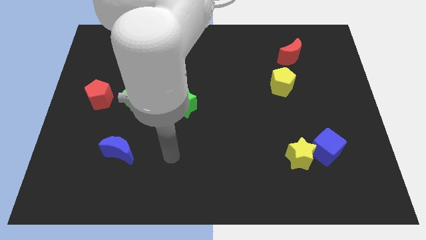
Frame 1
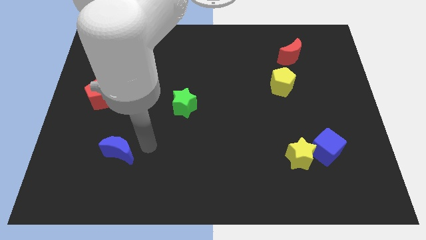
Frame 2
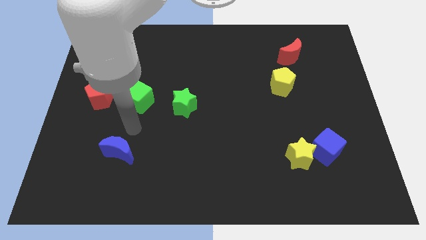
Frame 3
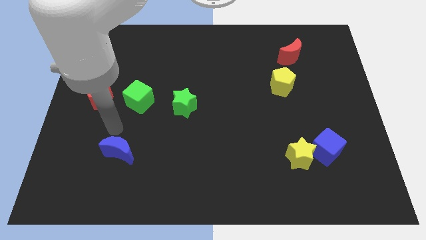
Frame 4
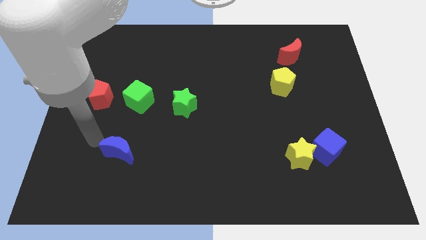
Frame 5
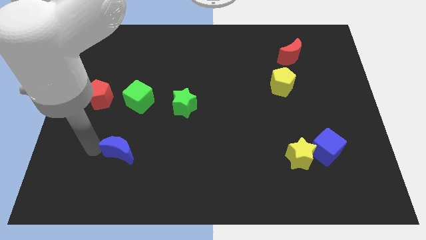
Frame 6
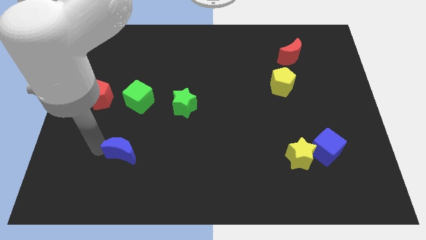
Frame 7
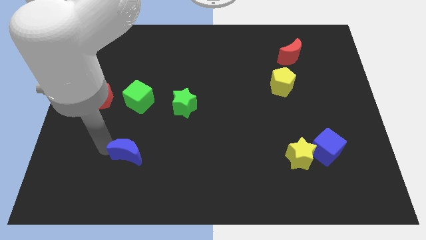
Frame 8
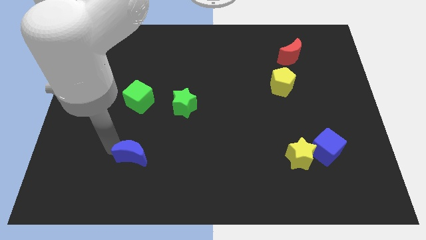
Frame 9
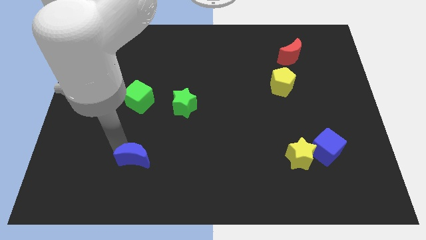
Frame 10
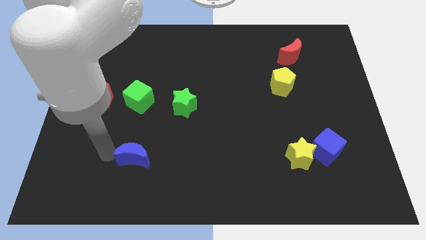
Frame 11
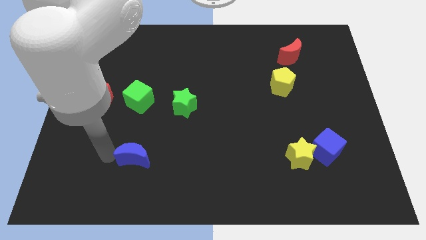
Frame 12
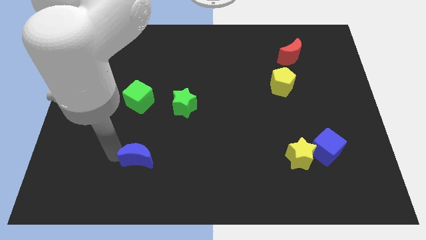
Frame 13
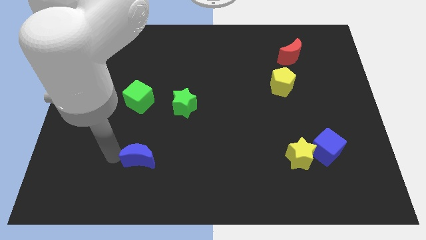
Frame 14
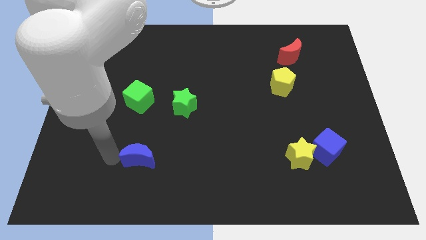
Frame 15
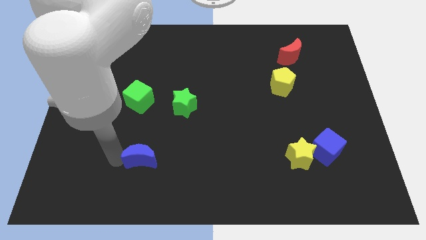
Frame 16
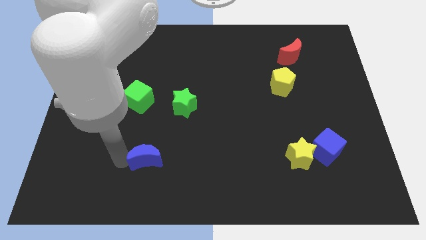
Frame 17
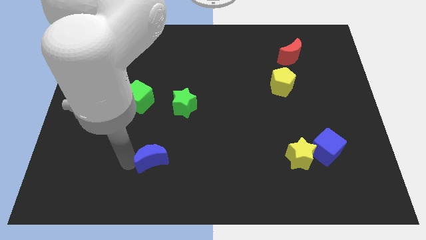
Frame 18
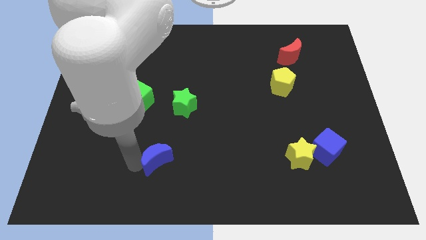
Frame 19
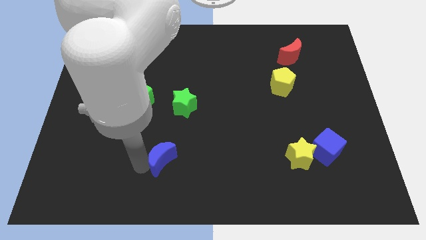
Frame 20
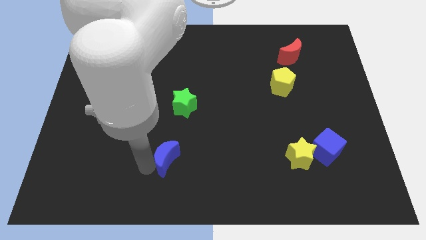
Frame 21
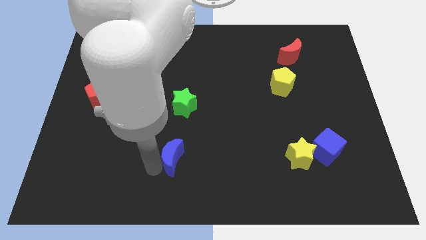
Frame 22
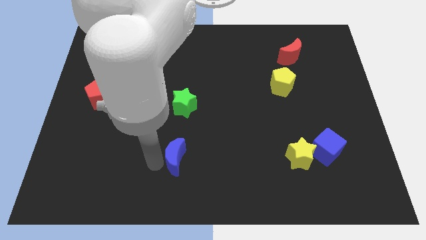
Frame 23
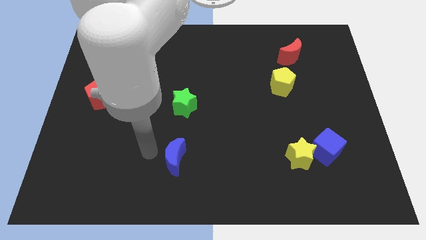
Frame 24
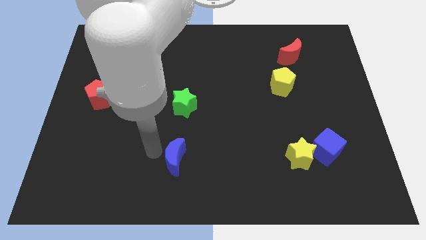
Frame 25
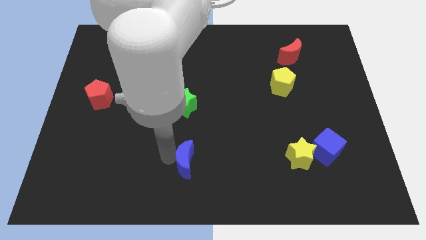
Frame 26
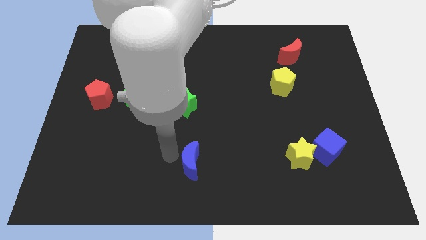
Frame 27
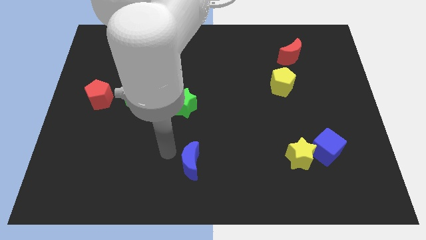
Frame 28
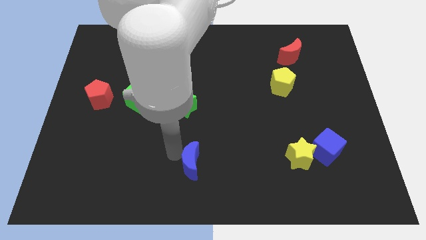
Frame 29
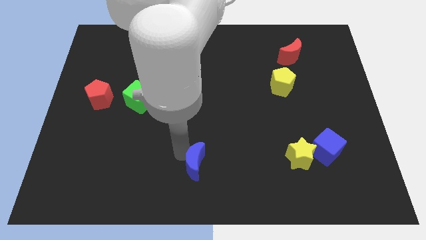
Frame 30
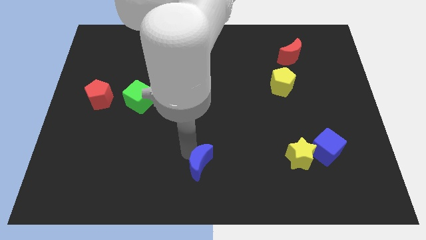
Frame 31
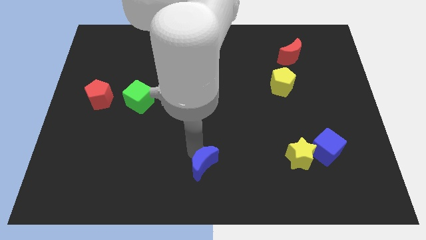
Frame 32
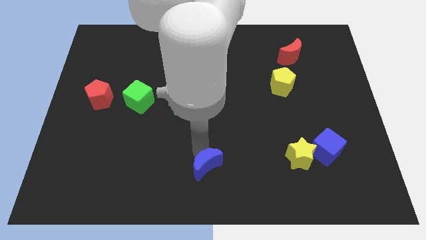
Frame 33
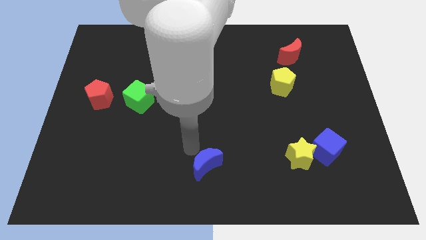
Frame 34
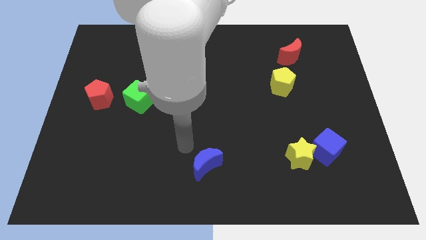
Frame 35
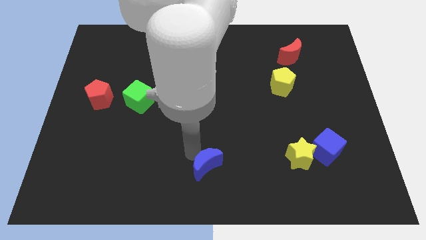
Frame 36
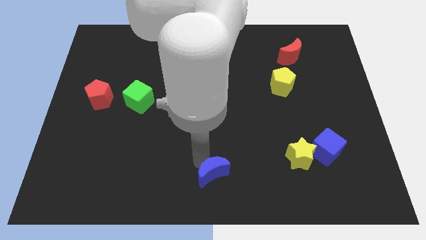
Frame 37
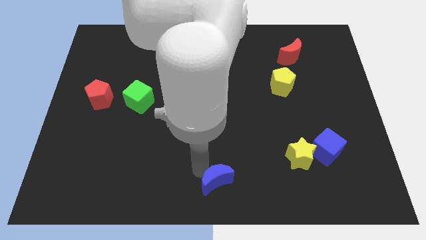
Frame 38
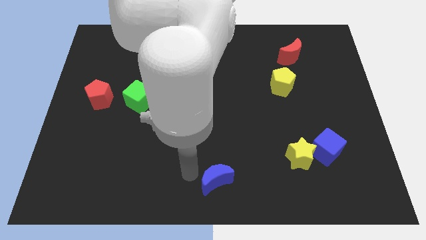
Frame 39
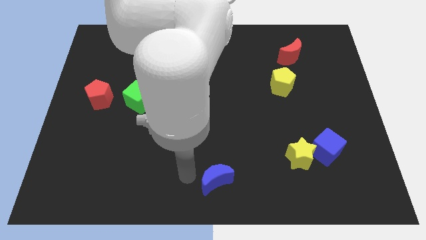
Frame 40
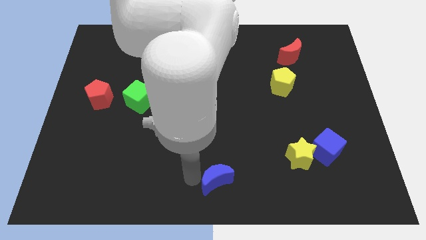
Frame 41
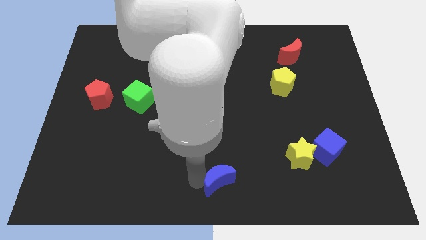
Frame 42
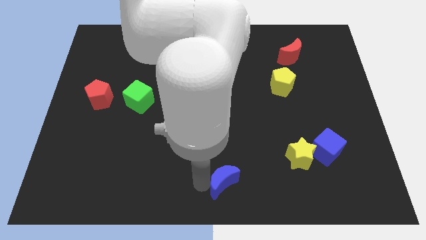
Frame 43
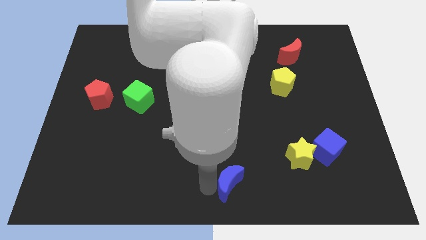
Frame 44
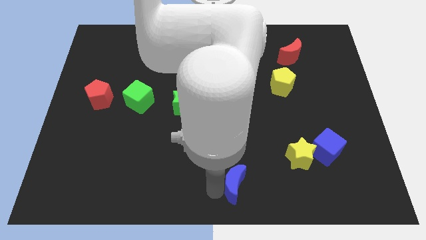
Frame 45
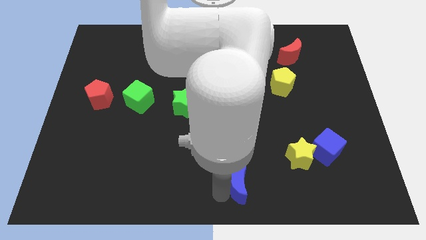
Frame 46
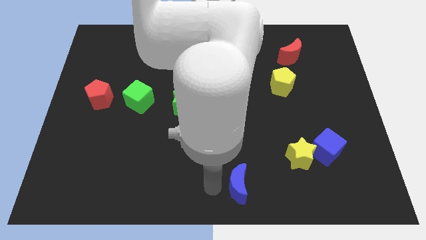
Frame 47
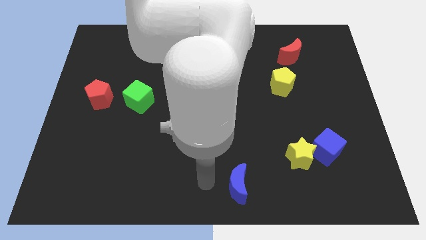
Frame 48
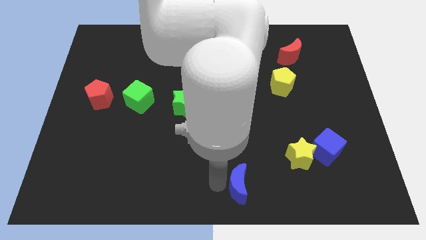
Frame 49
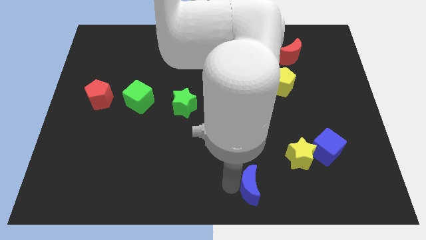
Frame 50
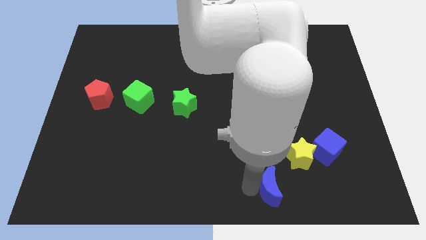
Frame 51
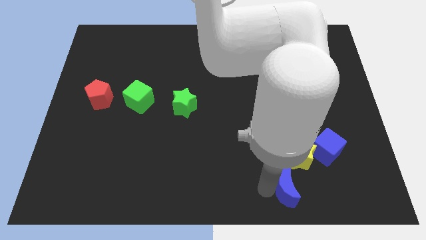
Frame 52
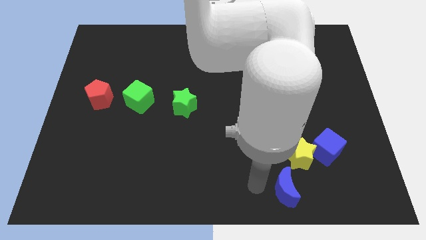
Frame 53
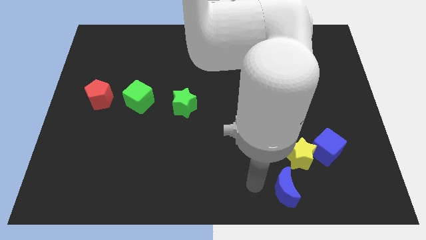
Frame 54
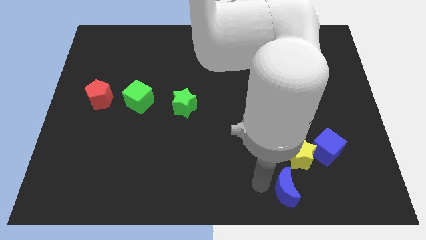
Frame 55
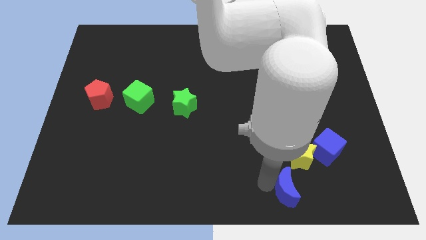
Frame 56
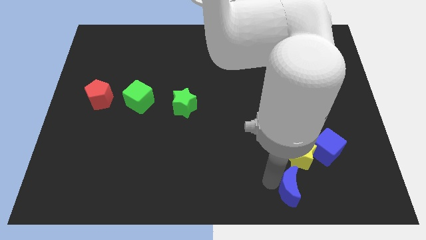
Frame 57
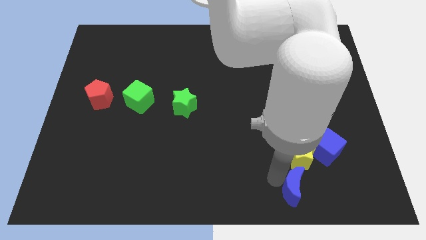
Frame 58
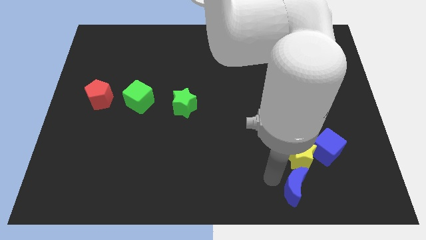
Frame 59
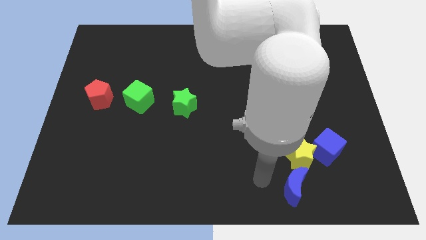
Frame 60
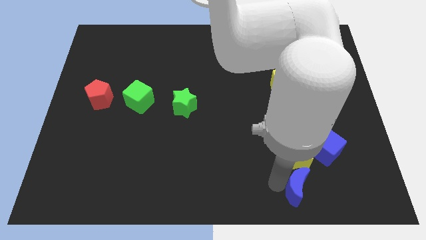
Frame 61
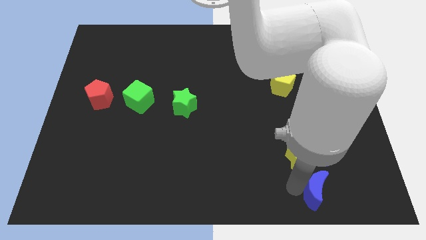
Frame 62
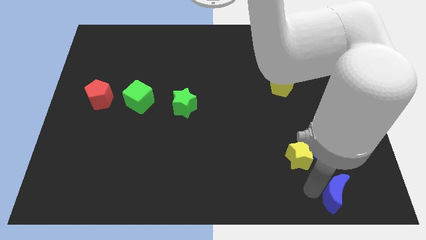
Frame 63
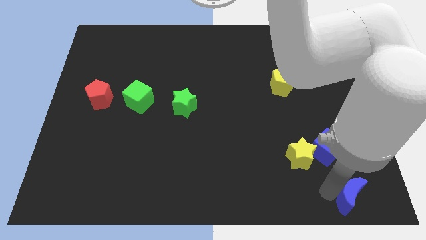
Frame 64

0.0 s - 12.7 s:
move the blue moon to the lower right corner

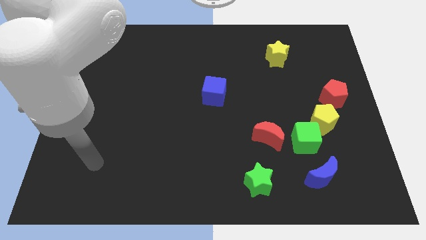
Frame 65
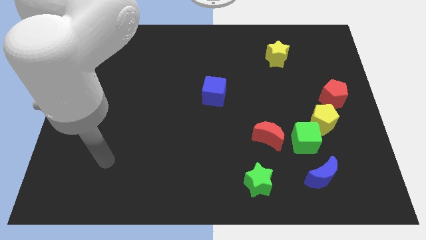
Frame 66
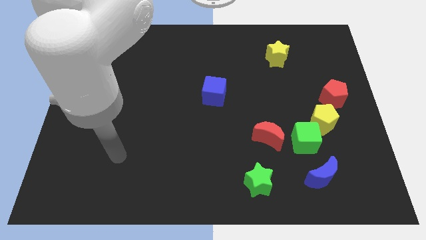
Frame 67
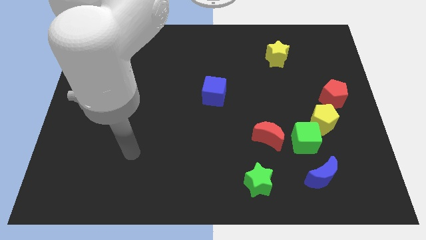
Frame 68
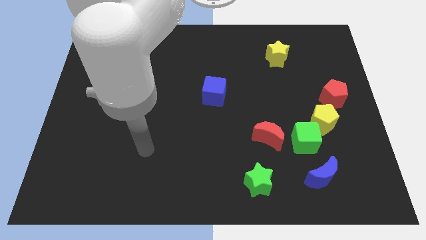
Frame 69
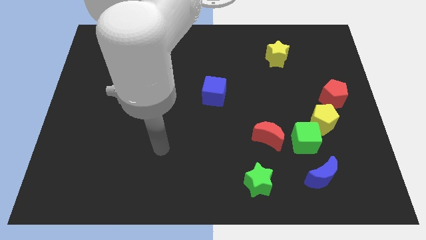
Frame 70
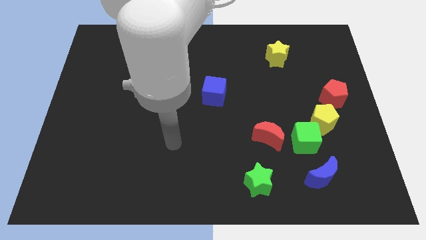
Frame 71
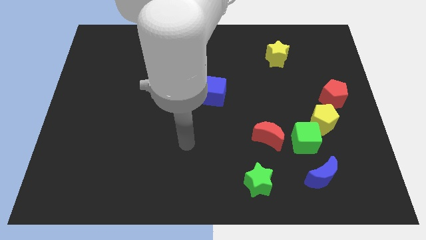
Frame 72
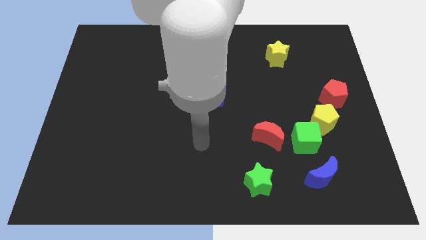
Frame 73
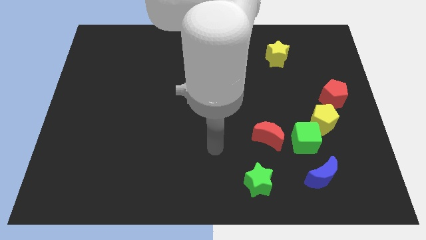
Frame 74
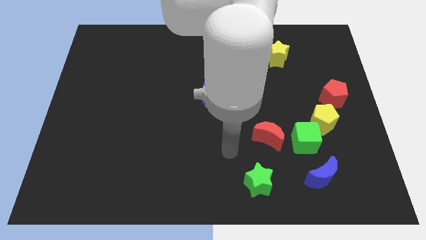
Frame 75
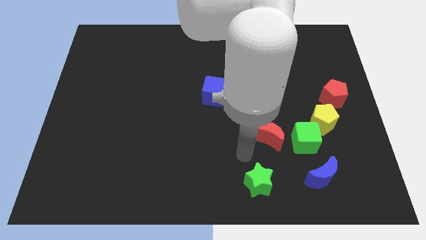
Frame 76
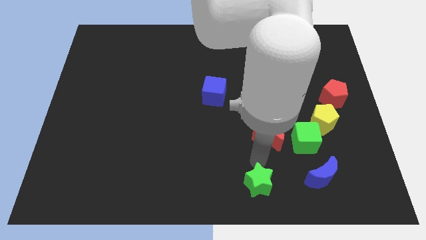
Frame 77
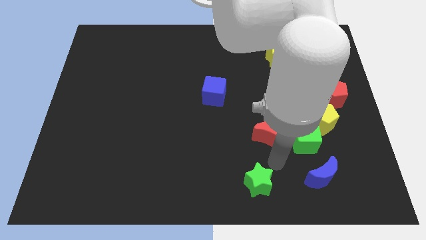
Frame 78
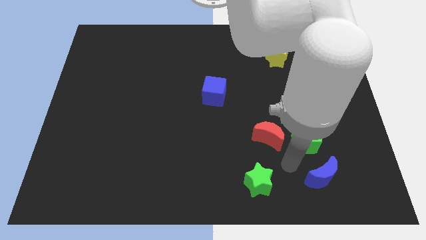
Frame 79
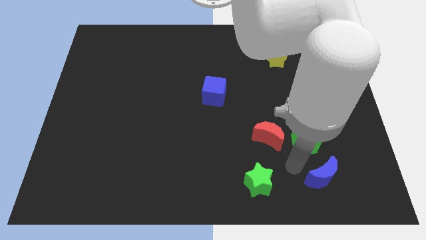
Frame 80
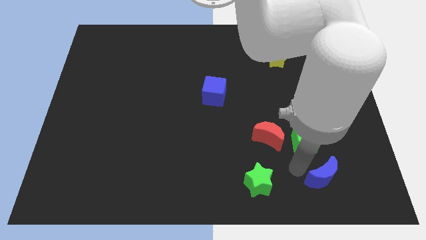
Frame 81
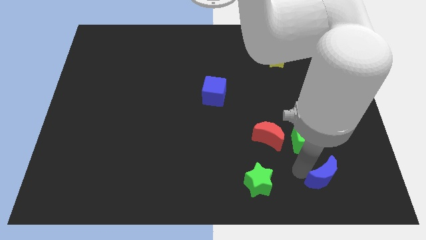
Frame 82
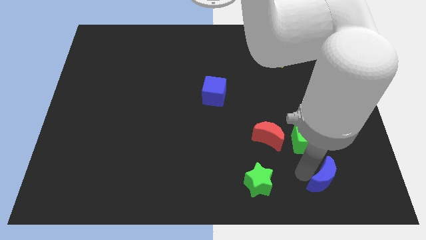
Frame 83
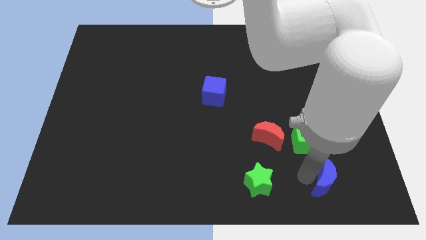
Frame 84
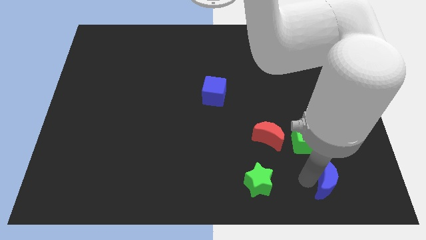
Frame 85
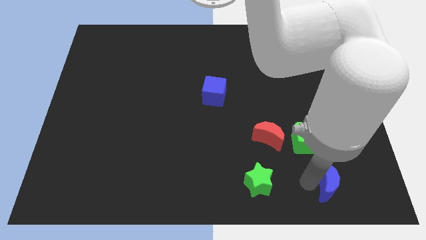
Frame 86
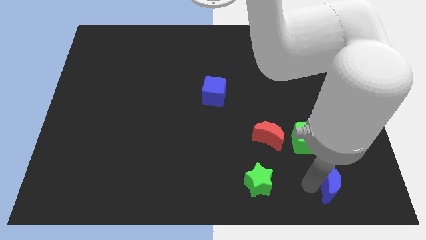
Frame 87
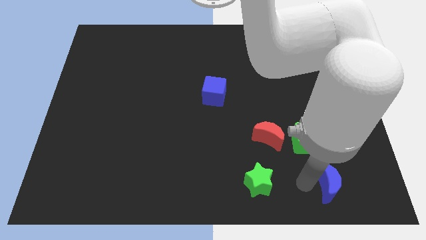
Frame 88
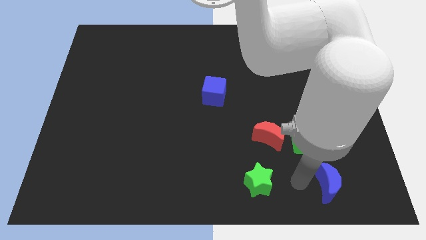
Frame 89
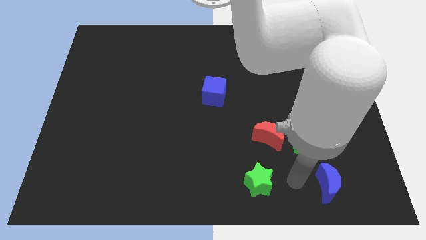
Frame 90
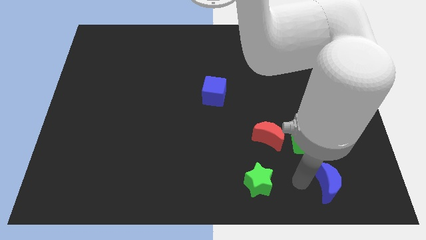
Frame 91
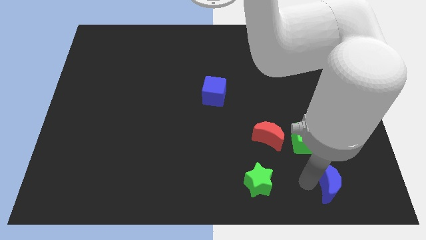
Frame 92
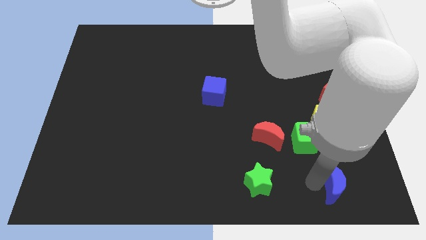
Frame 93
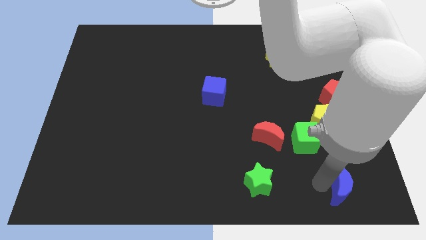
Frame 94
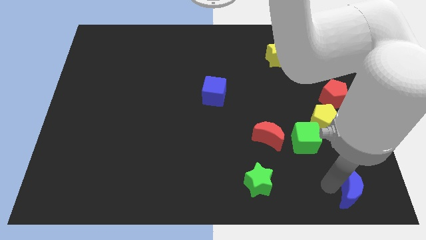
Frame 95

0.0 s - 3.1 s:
slide the blue moon to the bottom right of the board
